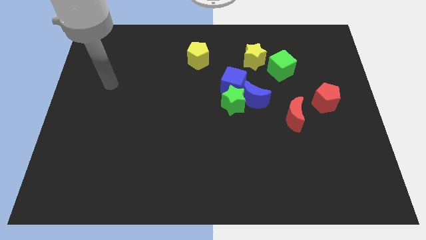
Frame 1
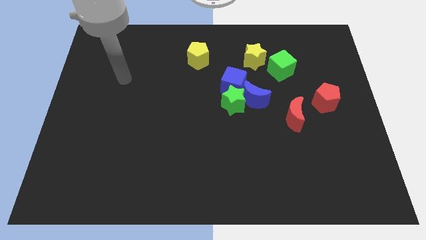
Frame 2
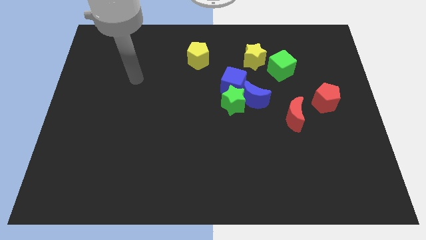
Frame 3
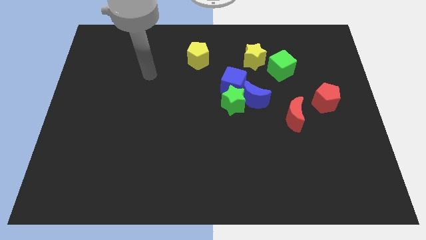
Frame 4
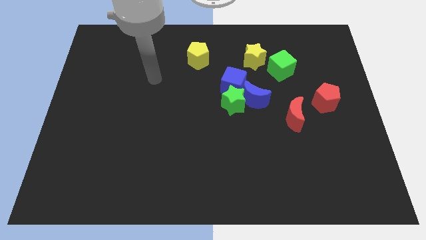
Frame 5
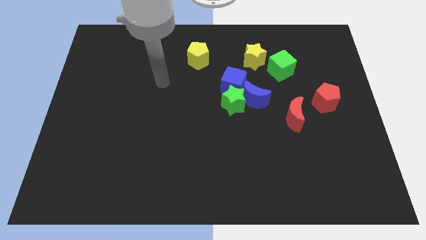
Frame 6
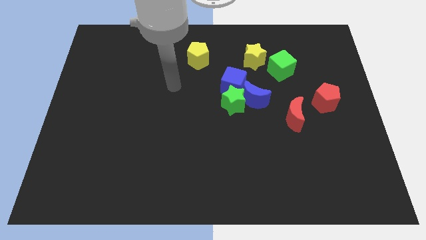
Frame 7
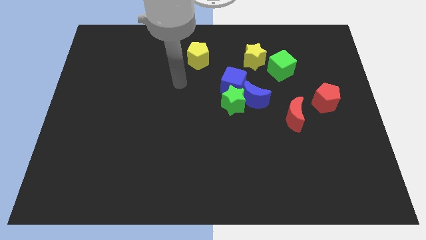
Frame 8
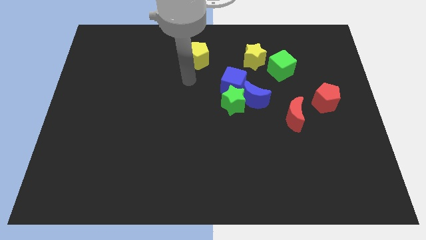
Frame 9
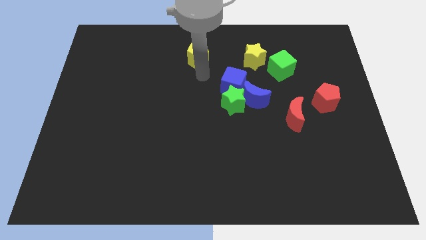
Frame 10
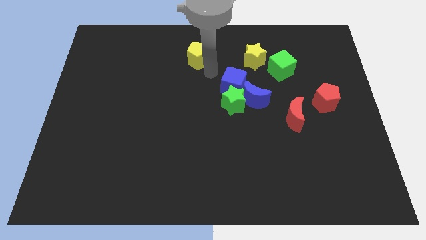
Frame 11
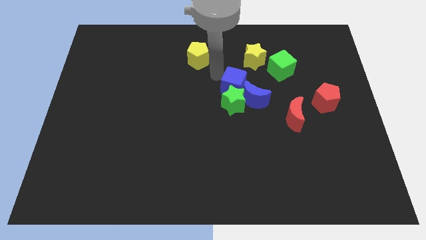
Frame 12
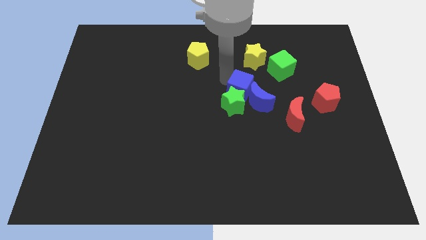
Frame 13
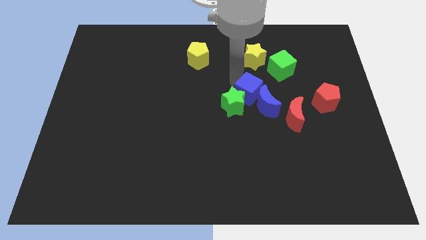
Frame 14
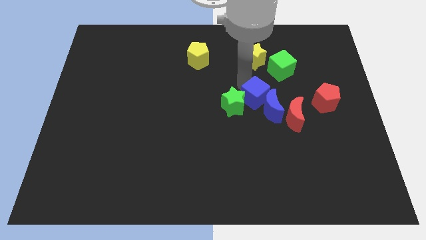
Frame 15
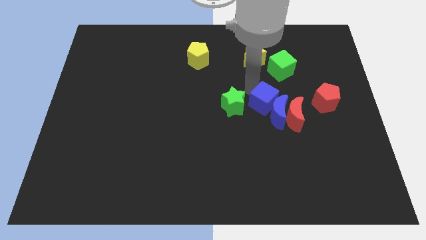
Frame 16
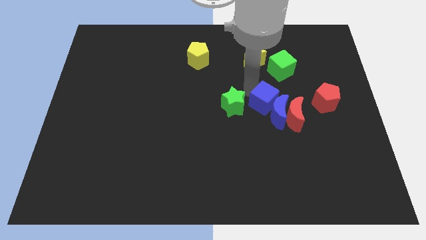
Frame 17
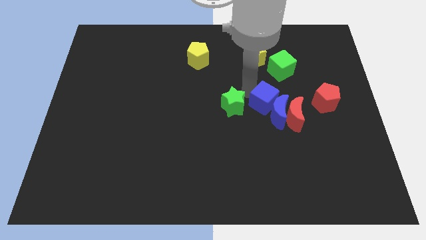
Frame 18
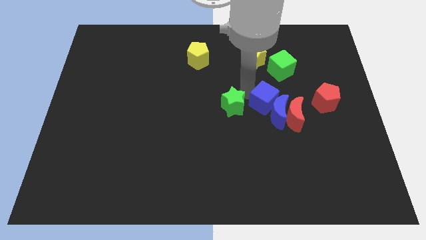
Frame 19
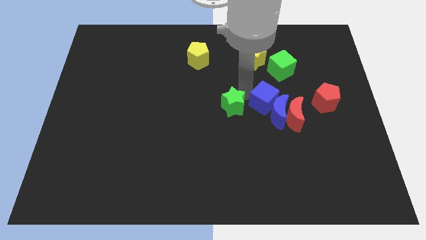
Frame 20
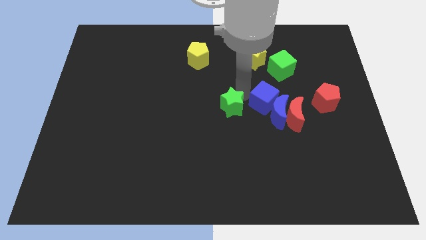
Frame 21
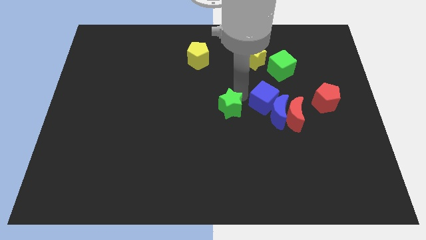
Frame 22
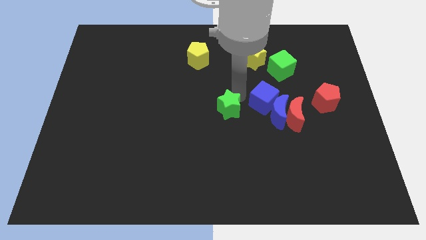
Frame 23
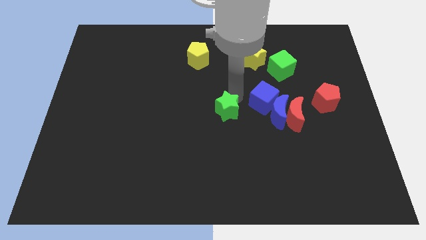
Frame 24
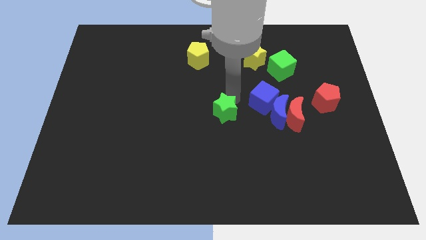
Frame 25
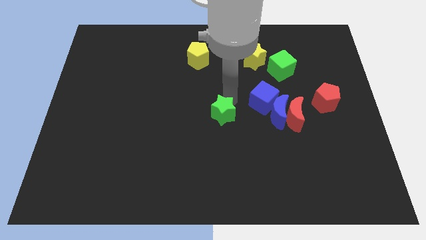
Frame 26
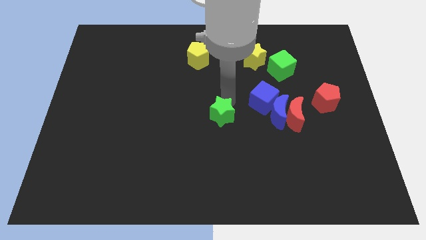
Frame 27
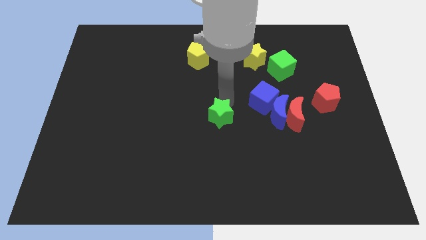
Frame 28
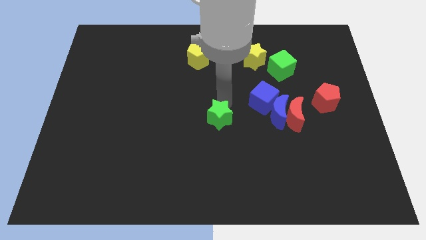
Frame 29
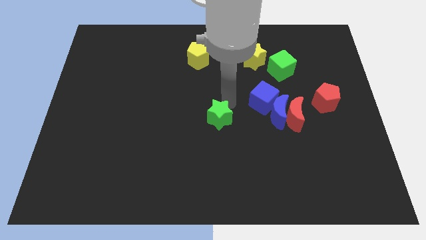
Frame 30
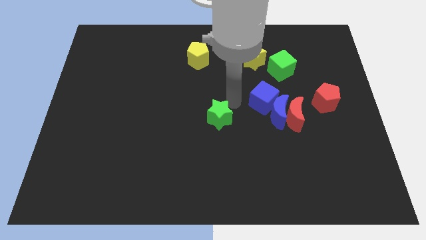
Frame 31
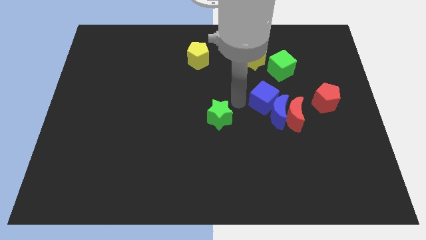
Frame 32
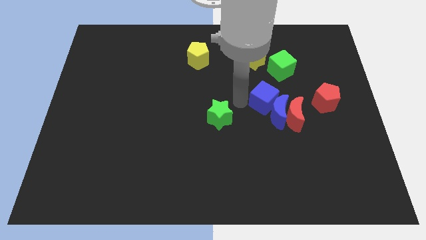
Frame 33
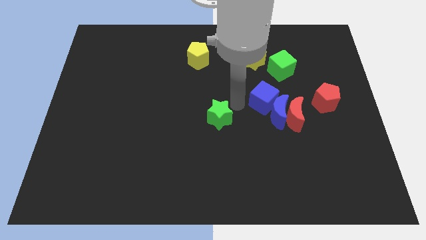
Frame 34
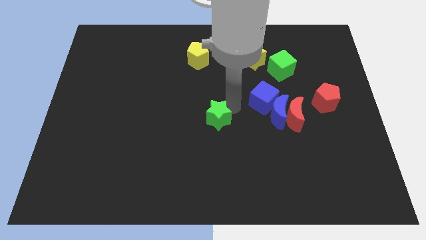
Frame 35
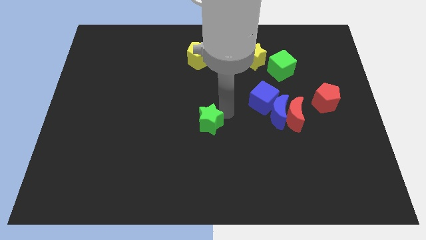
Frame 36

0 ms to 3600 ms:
slide the green star diagonally down and left somewhat

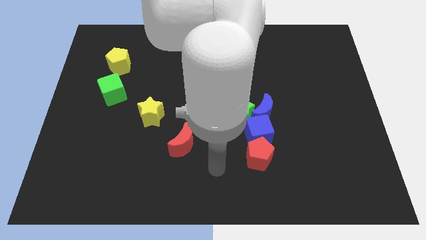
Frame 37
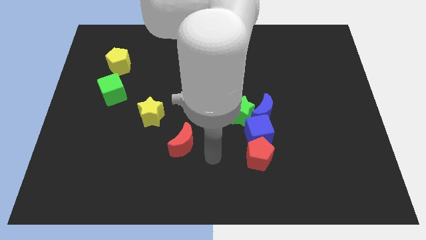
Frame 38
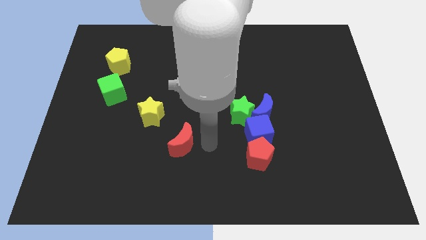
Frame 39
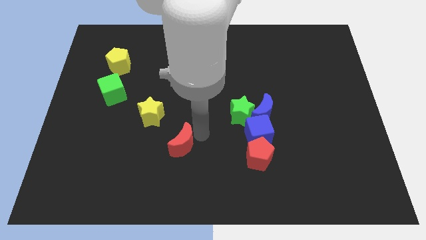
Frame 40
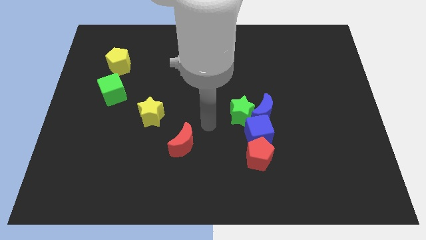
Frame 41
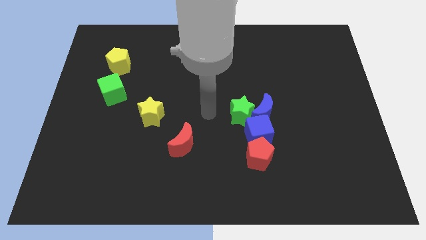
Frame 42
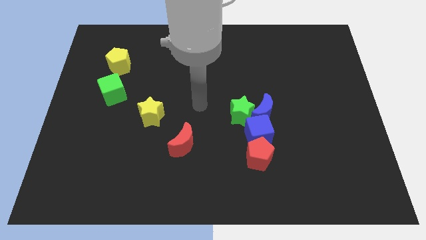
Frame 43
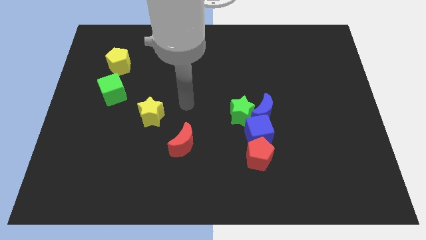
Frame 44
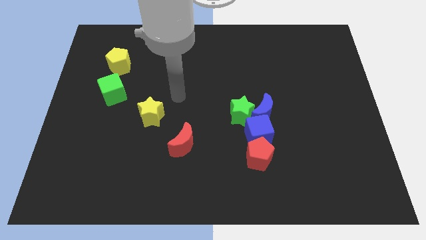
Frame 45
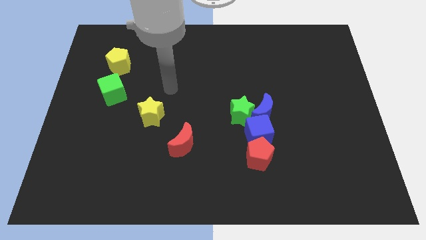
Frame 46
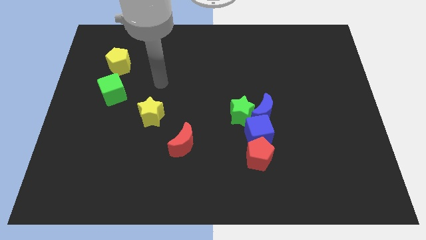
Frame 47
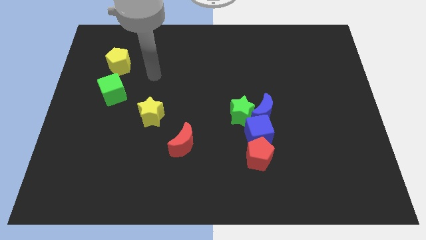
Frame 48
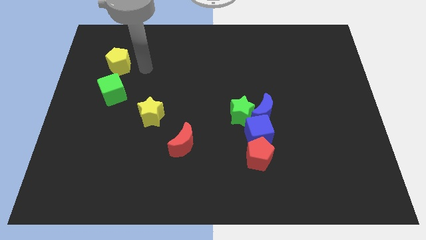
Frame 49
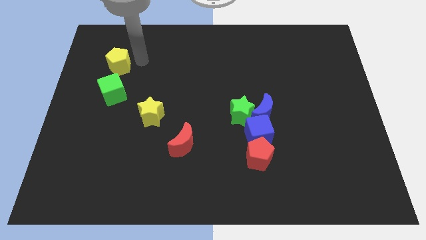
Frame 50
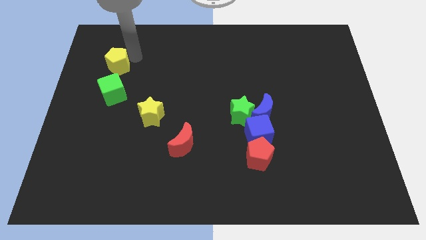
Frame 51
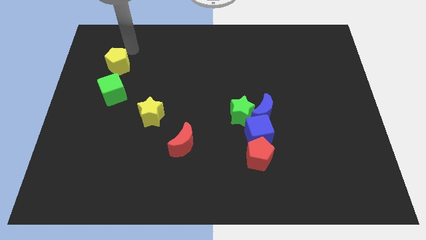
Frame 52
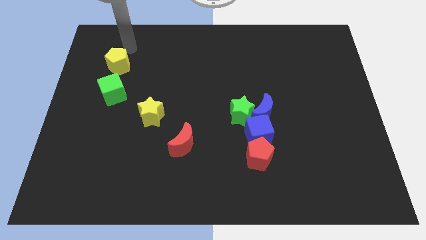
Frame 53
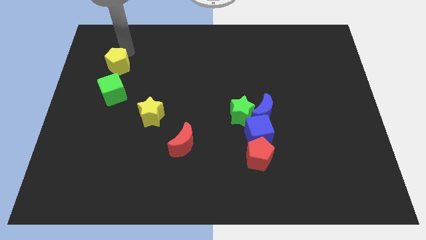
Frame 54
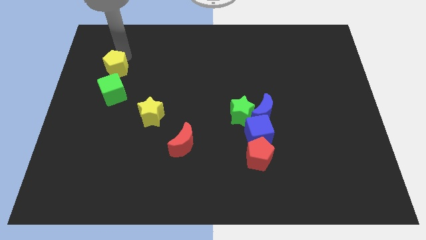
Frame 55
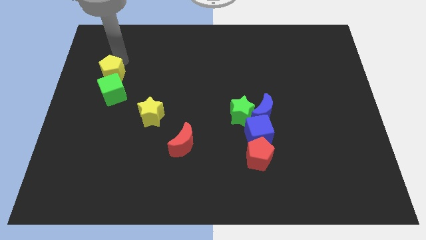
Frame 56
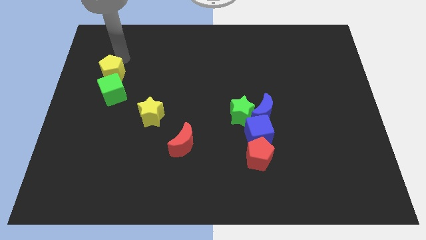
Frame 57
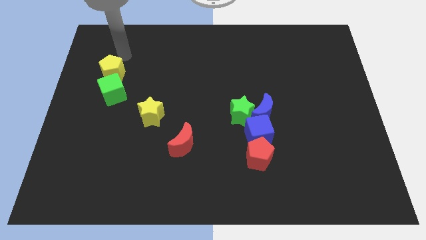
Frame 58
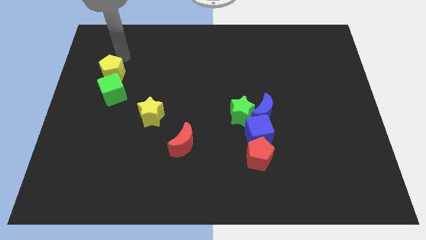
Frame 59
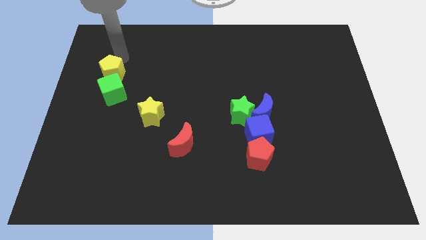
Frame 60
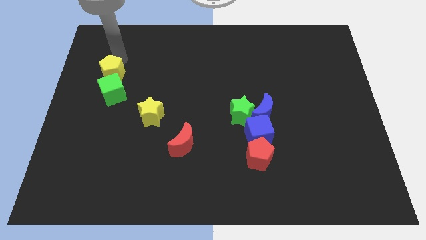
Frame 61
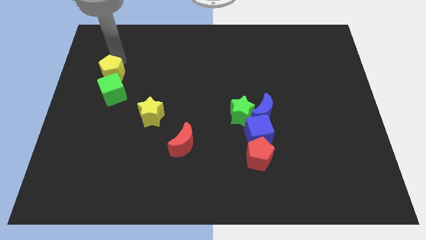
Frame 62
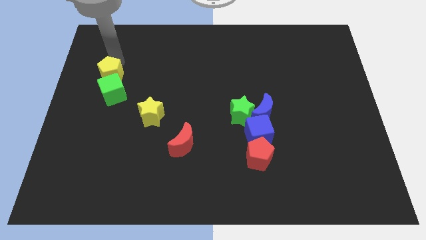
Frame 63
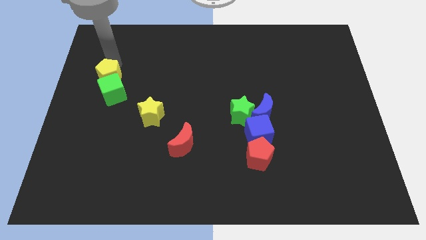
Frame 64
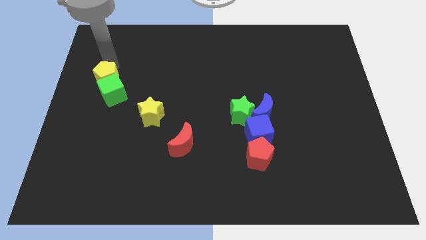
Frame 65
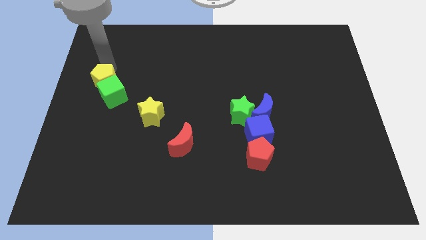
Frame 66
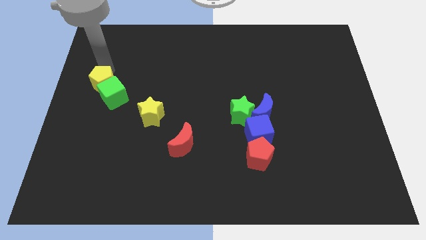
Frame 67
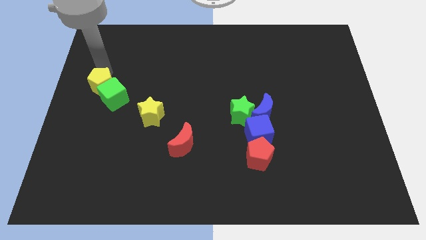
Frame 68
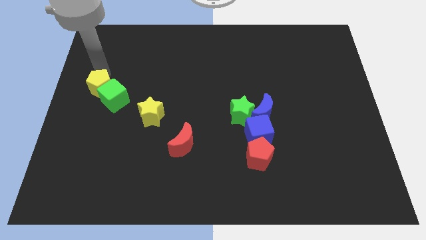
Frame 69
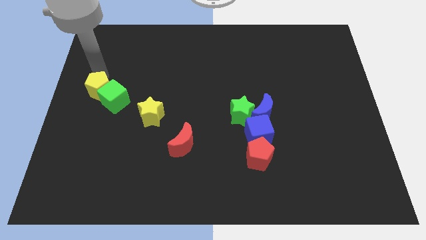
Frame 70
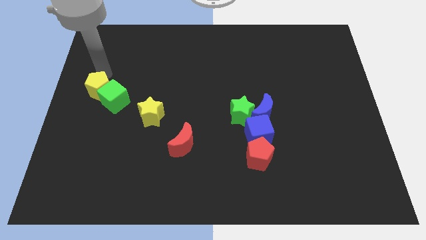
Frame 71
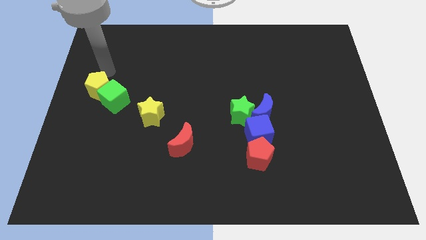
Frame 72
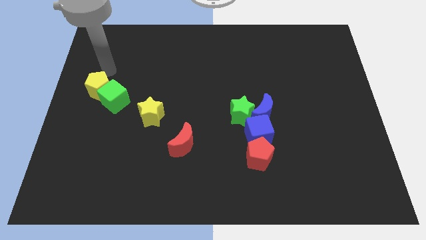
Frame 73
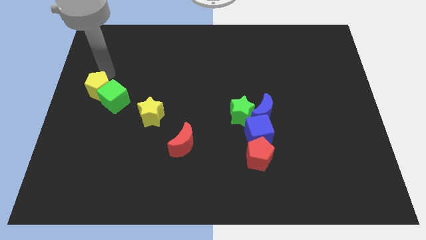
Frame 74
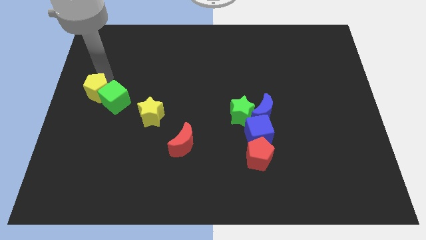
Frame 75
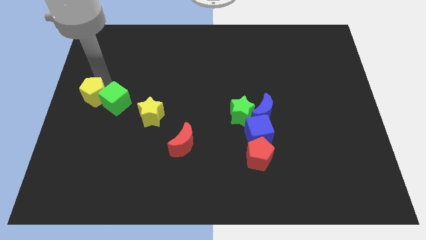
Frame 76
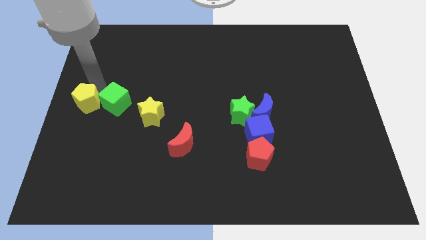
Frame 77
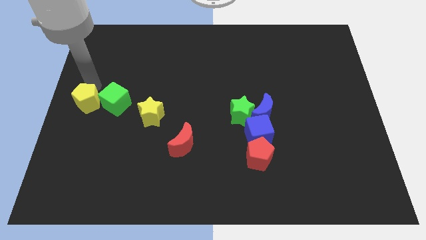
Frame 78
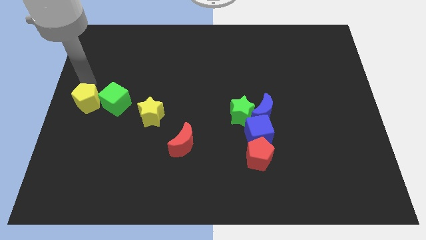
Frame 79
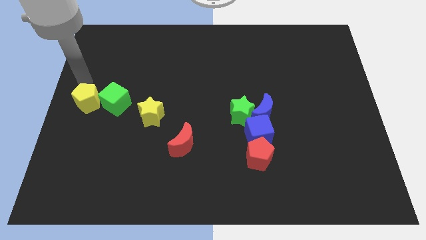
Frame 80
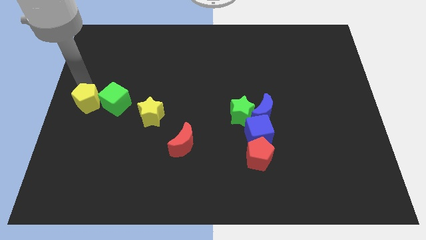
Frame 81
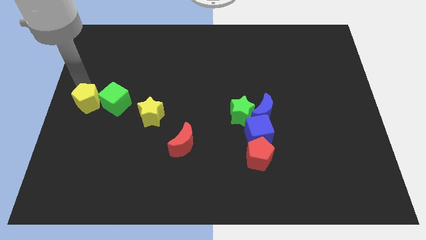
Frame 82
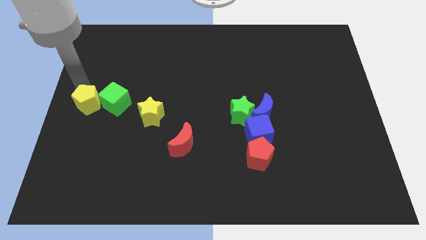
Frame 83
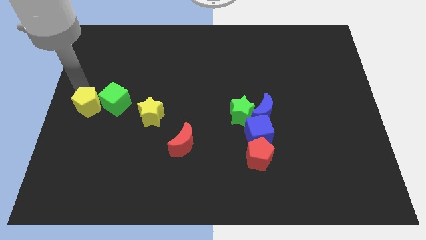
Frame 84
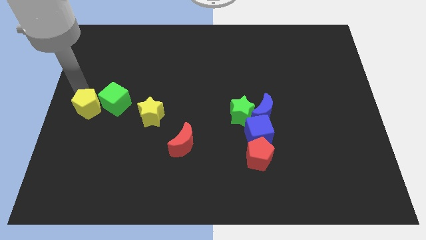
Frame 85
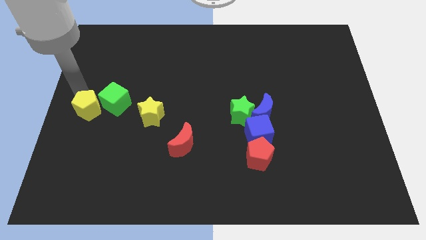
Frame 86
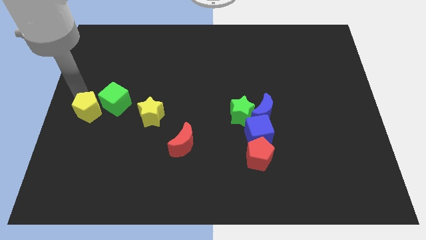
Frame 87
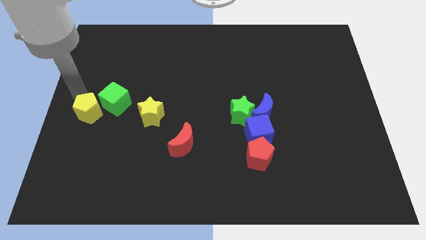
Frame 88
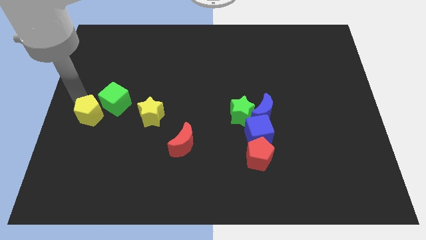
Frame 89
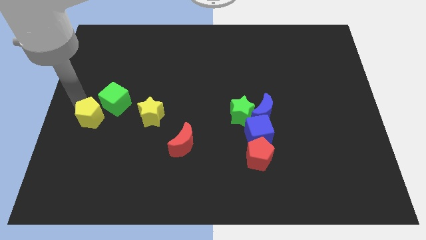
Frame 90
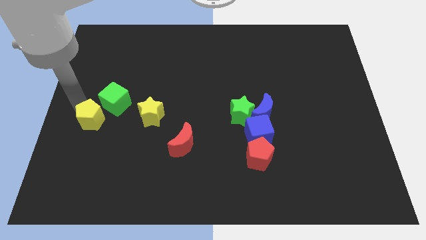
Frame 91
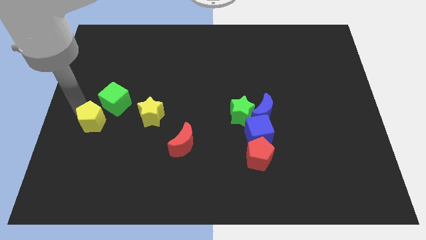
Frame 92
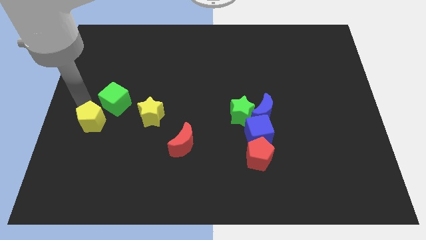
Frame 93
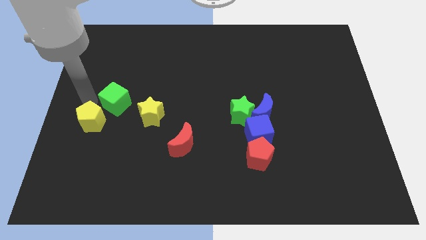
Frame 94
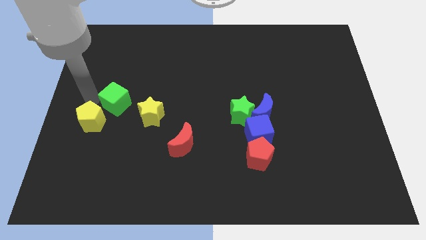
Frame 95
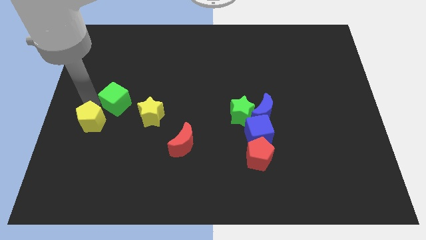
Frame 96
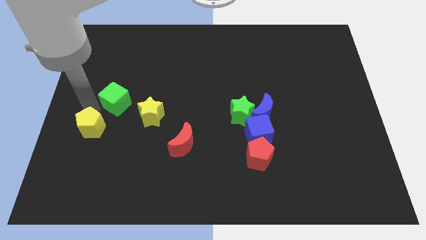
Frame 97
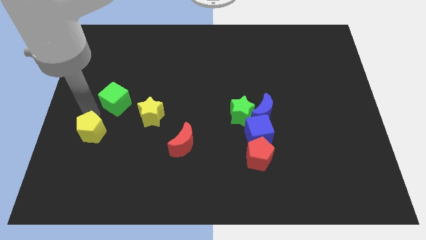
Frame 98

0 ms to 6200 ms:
move the yellow pentagon downwards
